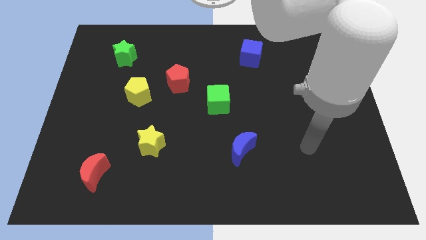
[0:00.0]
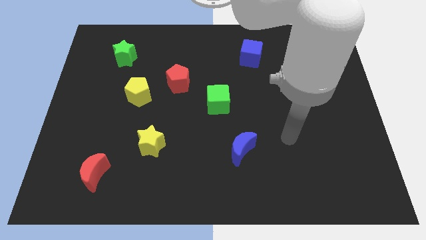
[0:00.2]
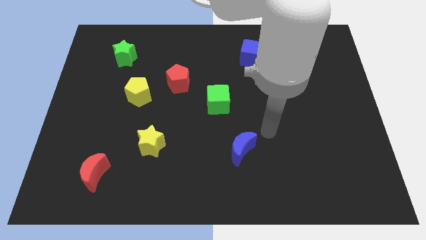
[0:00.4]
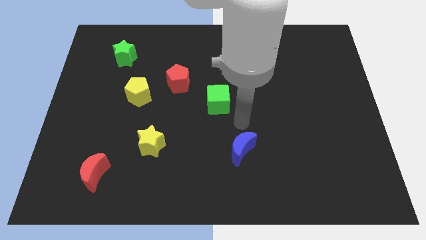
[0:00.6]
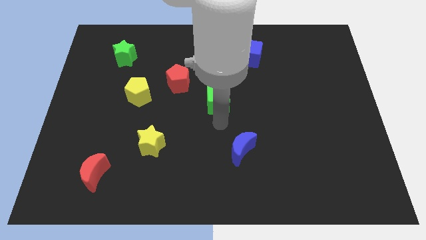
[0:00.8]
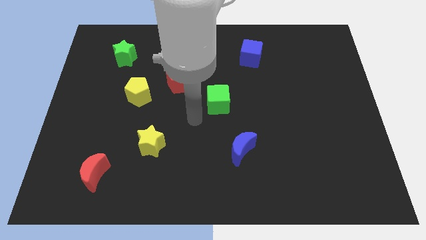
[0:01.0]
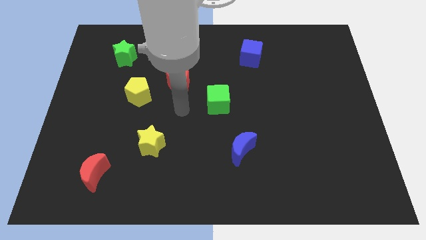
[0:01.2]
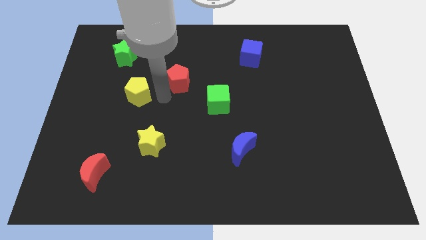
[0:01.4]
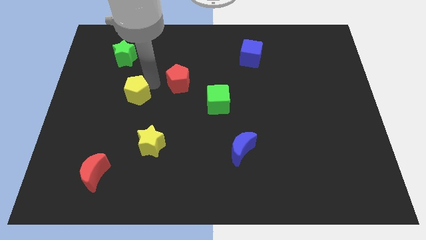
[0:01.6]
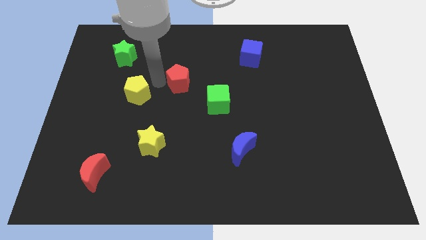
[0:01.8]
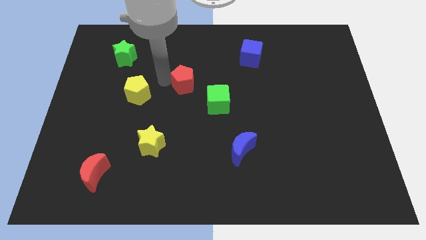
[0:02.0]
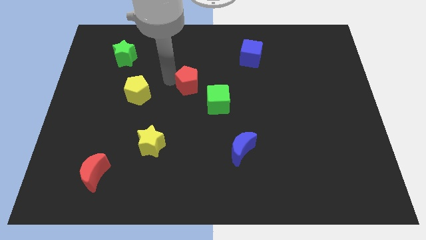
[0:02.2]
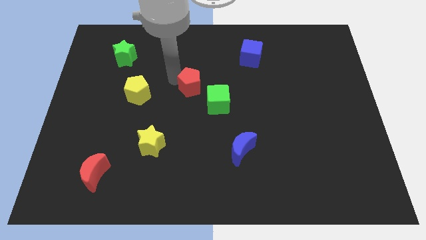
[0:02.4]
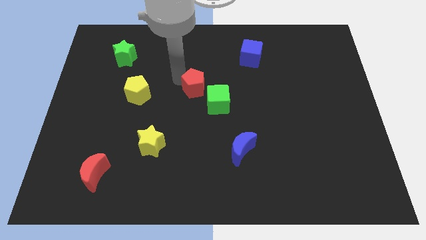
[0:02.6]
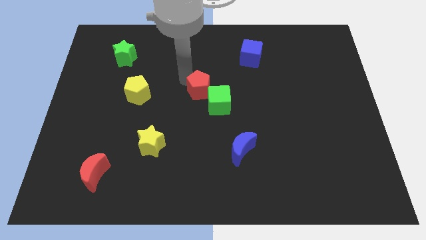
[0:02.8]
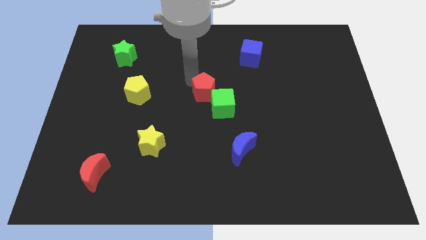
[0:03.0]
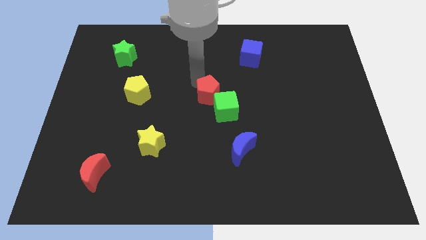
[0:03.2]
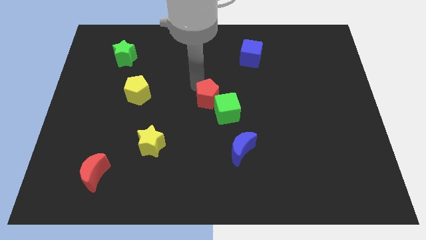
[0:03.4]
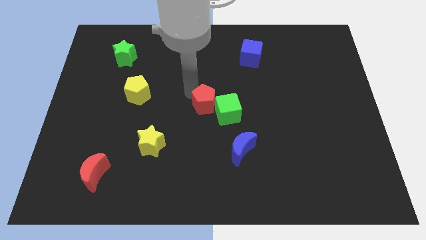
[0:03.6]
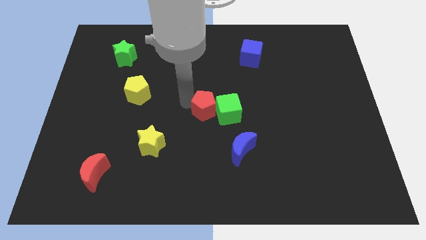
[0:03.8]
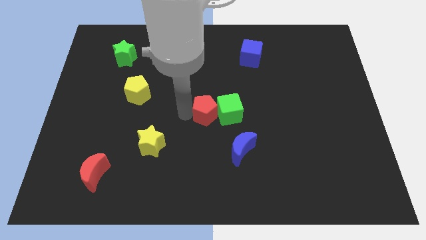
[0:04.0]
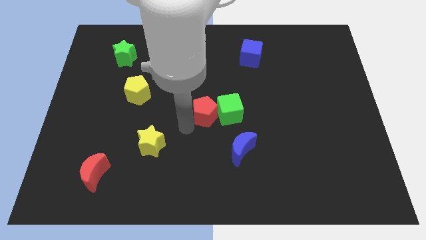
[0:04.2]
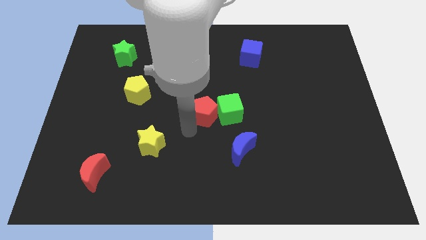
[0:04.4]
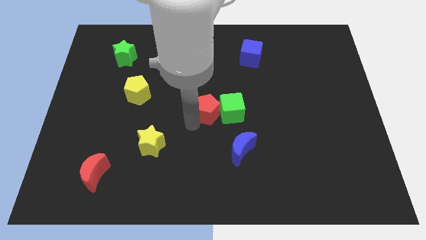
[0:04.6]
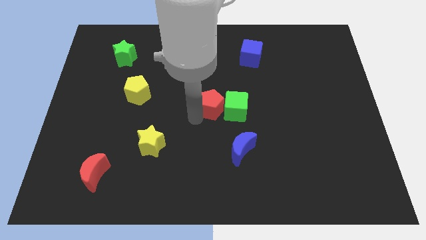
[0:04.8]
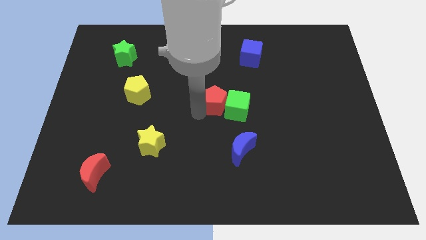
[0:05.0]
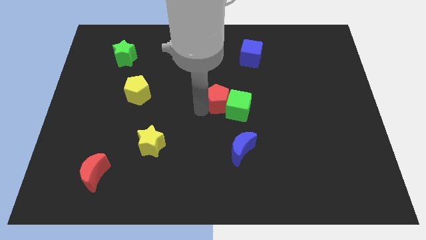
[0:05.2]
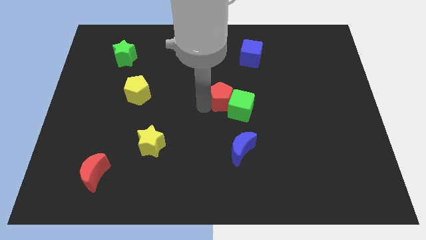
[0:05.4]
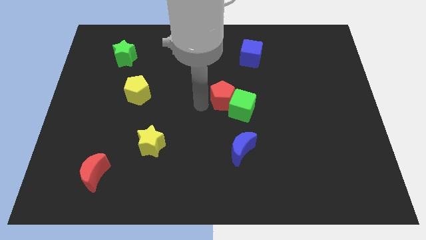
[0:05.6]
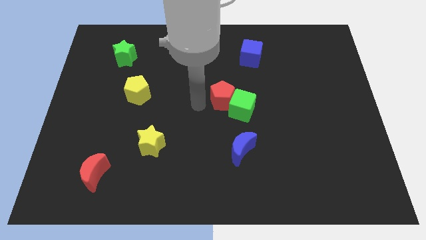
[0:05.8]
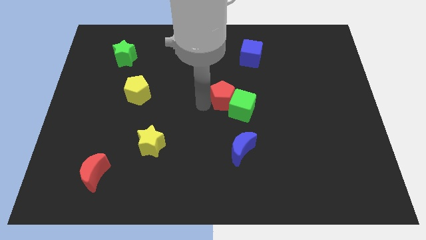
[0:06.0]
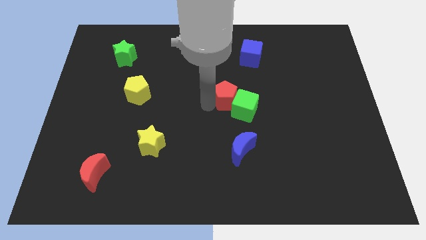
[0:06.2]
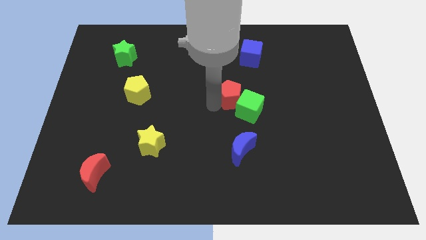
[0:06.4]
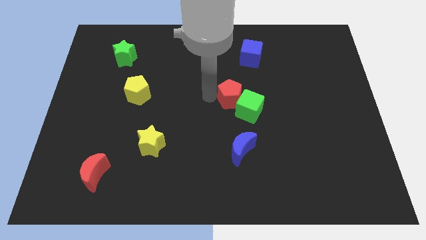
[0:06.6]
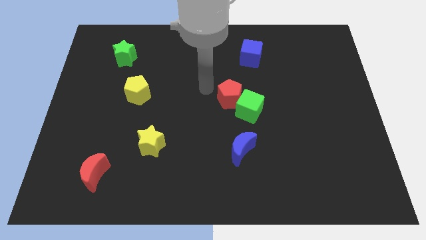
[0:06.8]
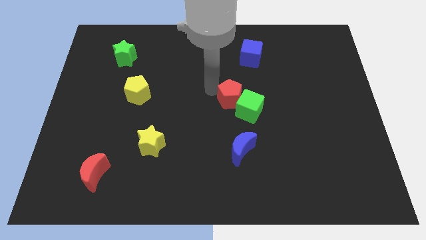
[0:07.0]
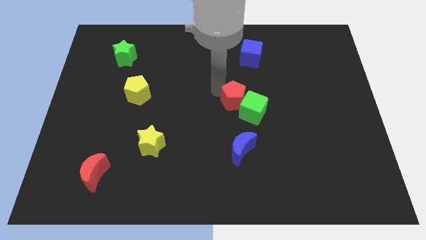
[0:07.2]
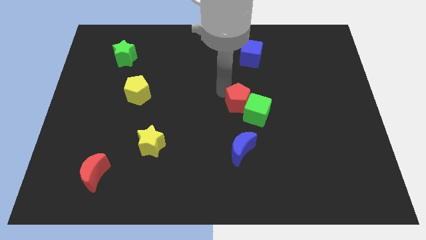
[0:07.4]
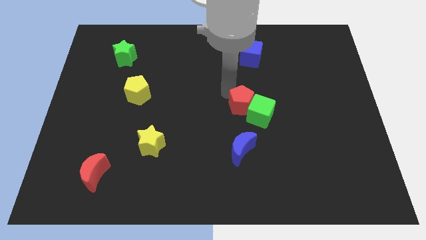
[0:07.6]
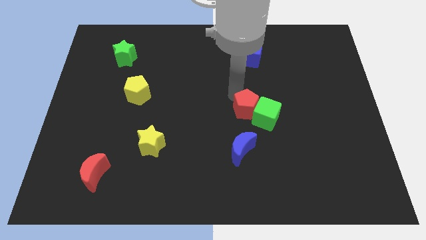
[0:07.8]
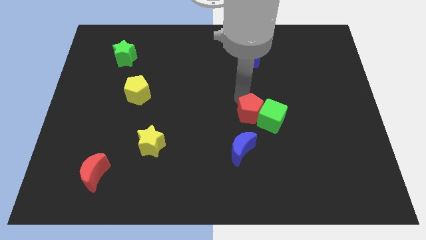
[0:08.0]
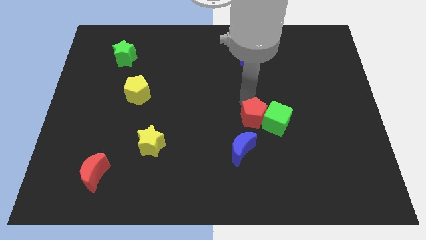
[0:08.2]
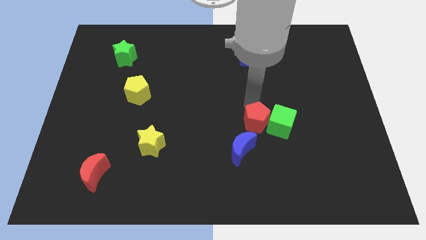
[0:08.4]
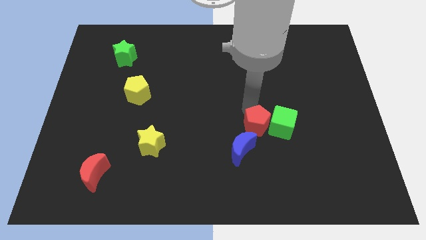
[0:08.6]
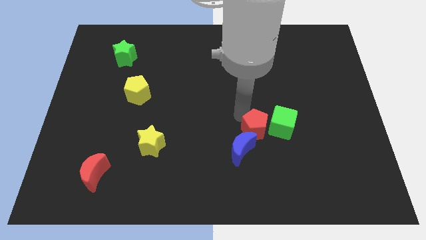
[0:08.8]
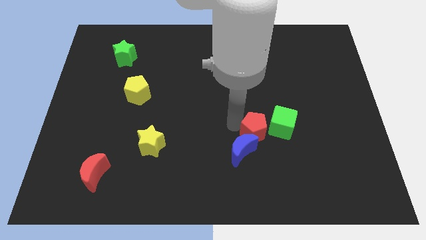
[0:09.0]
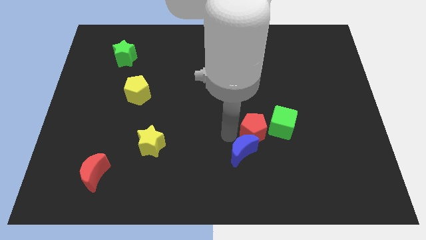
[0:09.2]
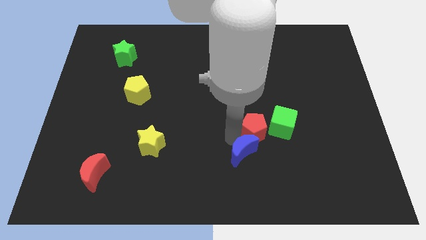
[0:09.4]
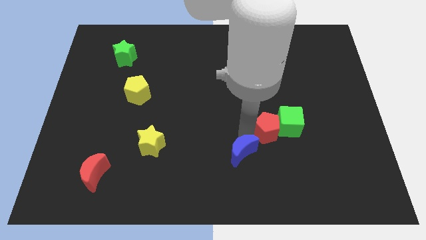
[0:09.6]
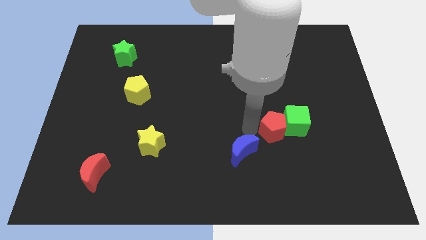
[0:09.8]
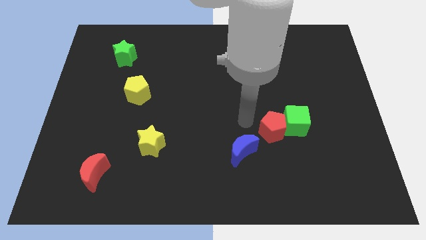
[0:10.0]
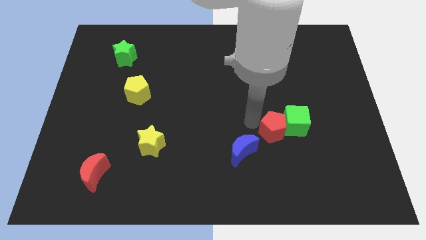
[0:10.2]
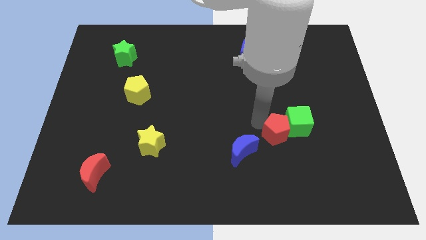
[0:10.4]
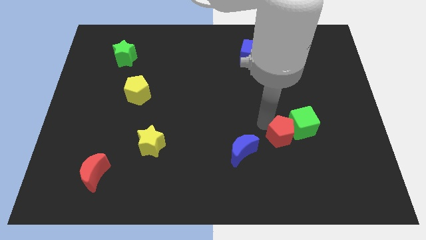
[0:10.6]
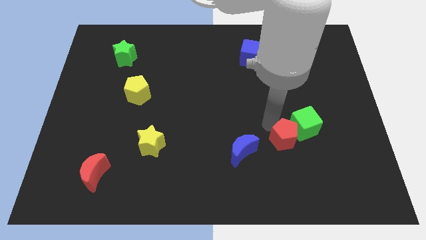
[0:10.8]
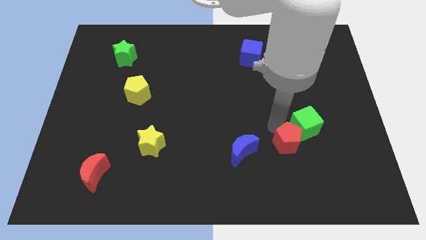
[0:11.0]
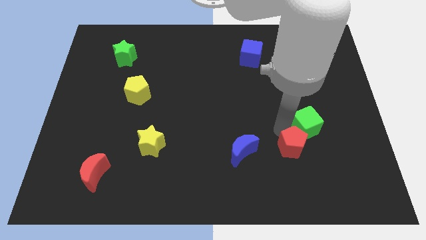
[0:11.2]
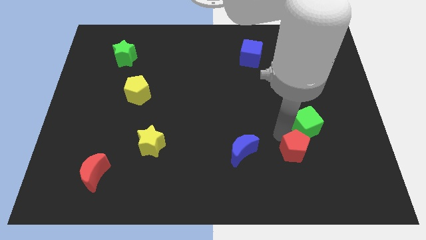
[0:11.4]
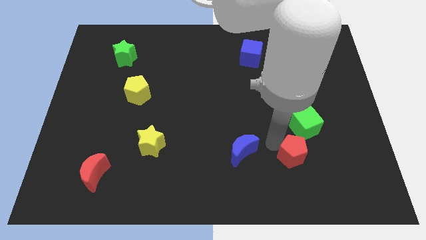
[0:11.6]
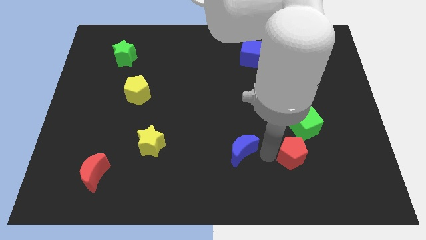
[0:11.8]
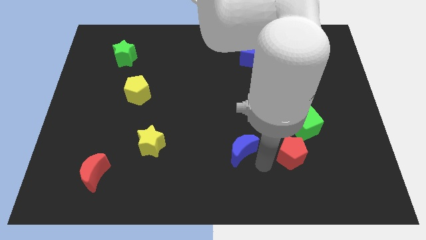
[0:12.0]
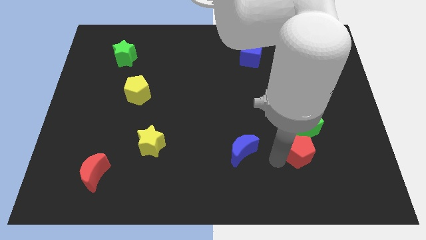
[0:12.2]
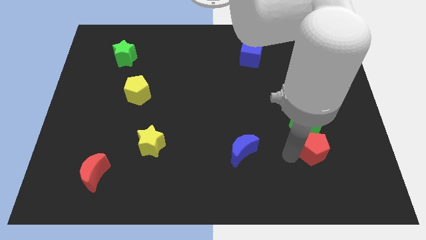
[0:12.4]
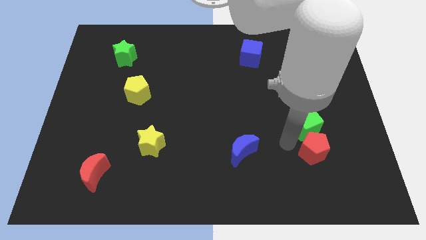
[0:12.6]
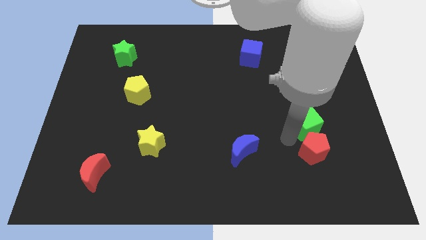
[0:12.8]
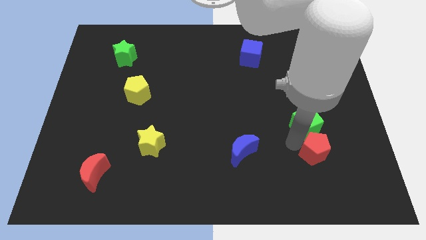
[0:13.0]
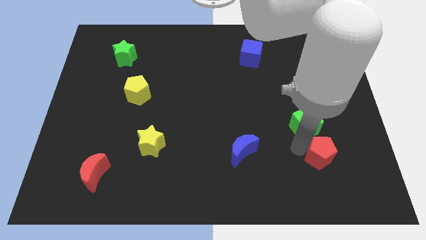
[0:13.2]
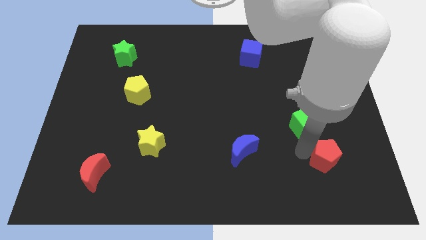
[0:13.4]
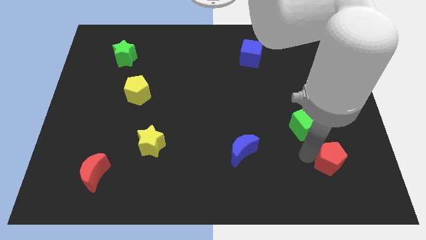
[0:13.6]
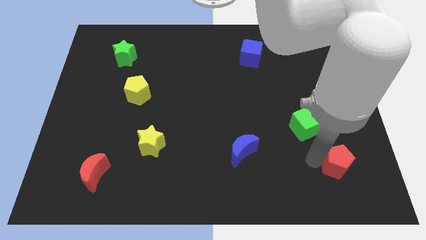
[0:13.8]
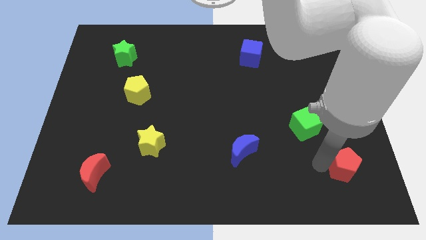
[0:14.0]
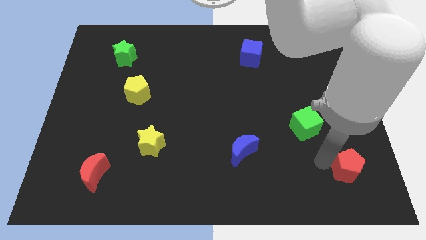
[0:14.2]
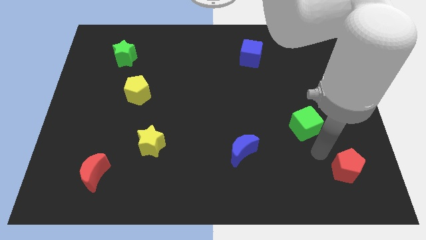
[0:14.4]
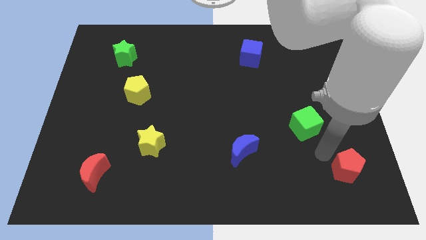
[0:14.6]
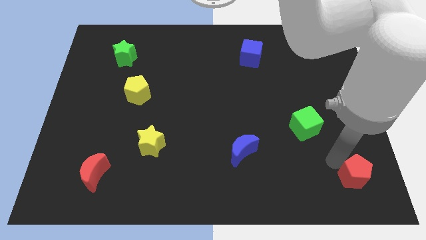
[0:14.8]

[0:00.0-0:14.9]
push the red pentagon to the bottom right of the board
